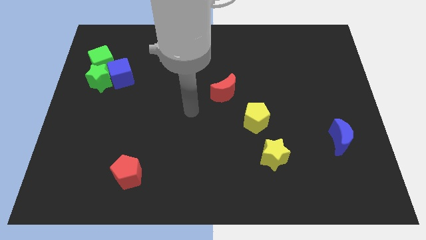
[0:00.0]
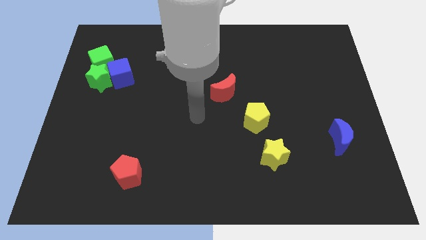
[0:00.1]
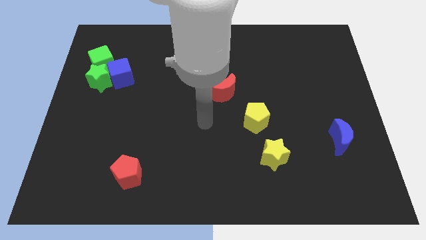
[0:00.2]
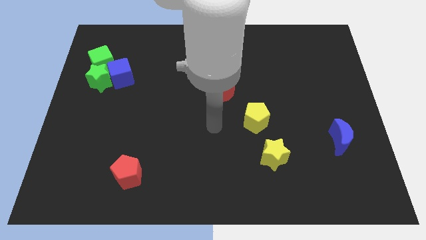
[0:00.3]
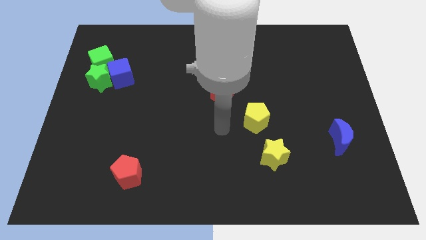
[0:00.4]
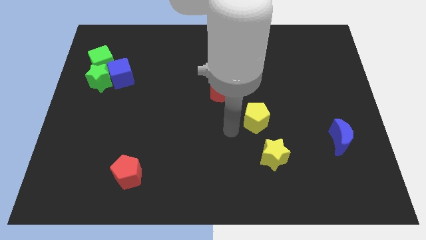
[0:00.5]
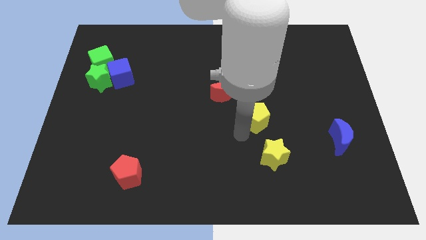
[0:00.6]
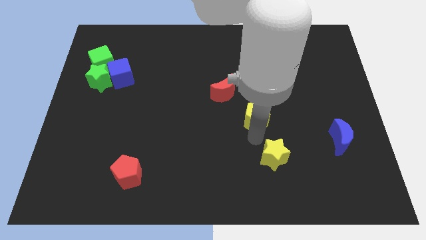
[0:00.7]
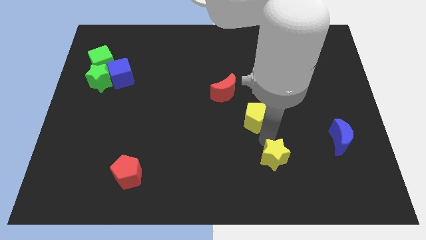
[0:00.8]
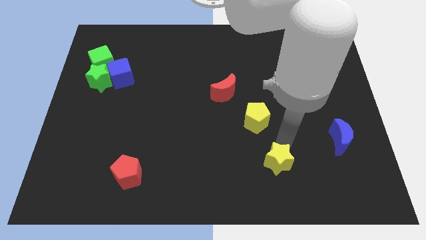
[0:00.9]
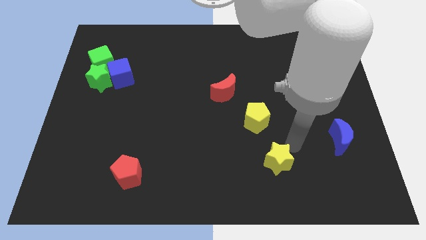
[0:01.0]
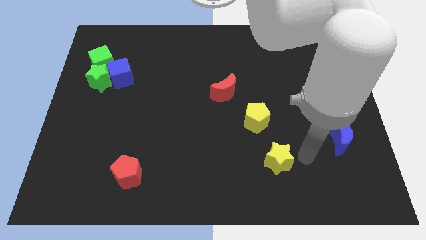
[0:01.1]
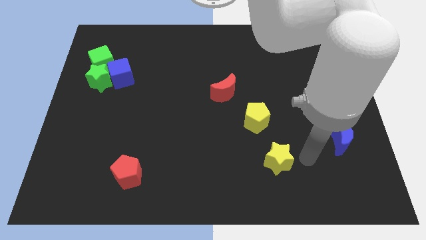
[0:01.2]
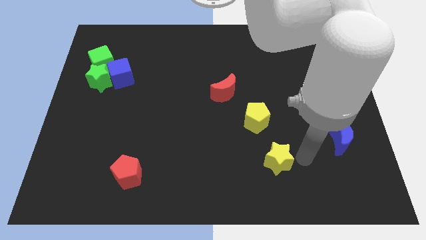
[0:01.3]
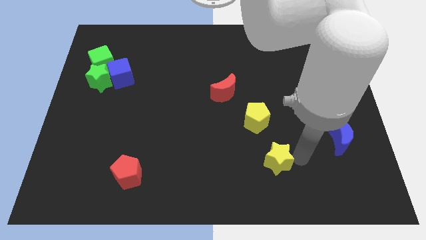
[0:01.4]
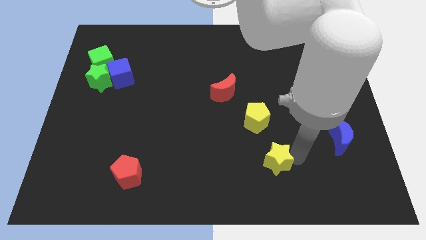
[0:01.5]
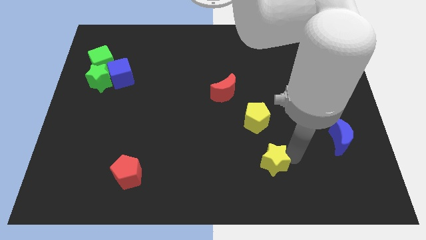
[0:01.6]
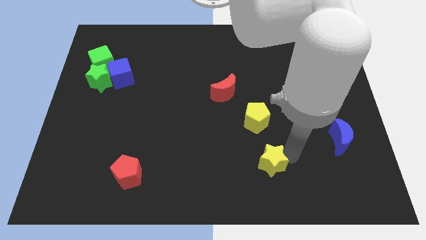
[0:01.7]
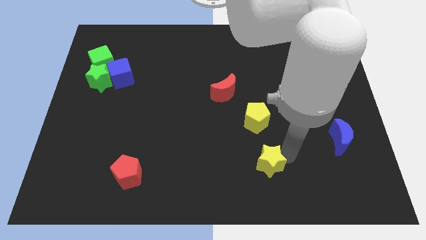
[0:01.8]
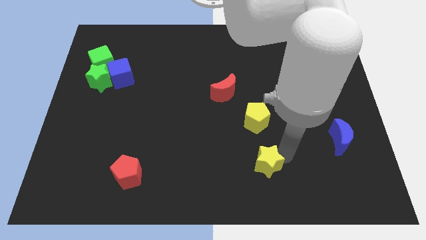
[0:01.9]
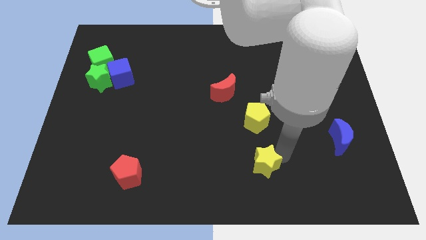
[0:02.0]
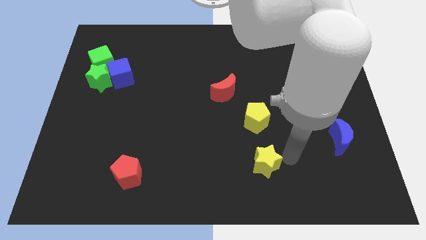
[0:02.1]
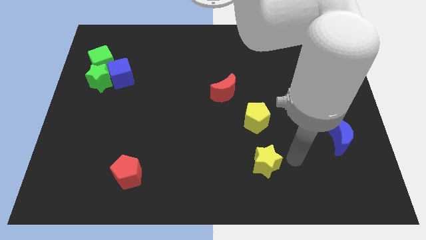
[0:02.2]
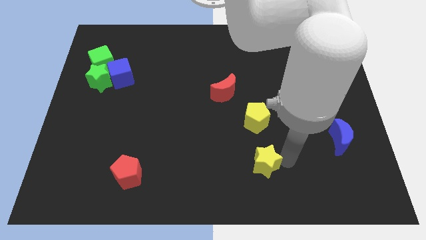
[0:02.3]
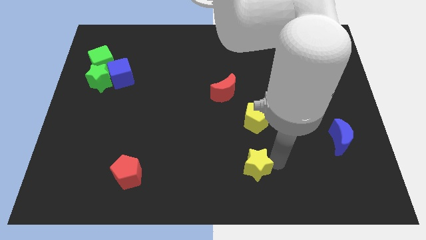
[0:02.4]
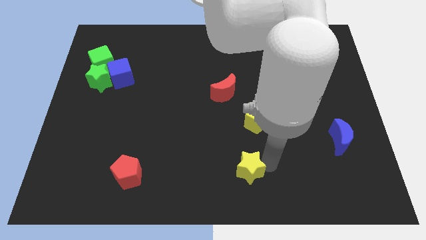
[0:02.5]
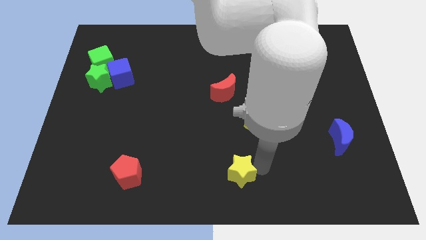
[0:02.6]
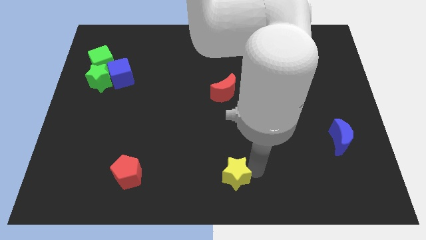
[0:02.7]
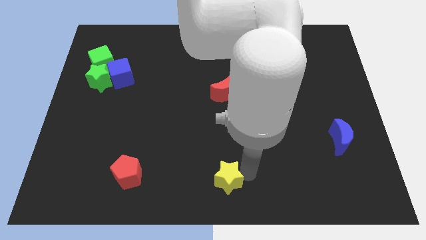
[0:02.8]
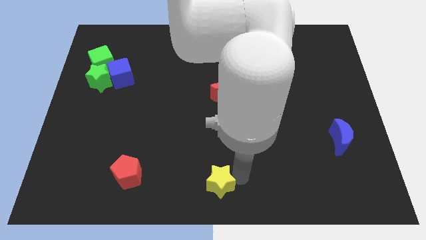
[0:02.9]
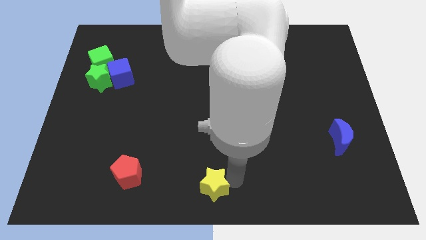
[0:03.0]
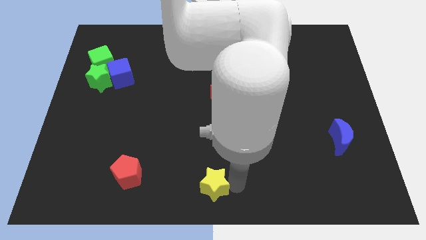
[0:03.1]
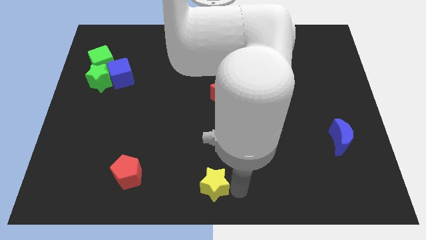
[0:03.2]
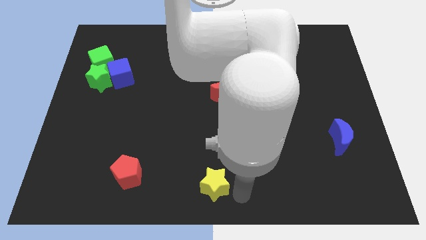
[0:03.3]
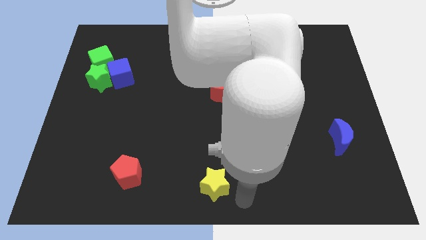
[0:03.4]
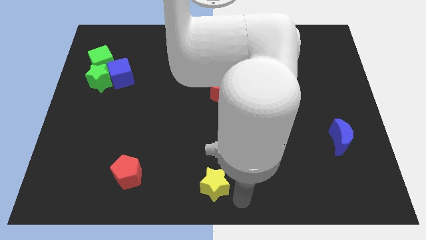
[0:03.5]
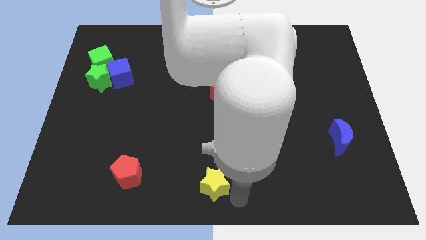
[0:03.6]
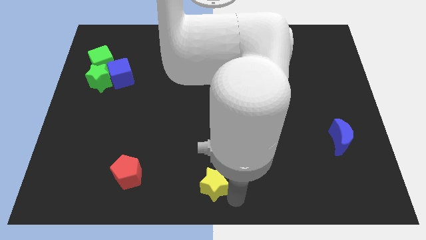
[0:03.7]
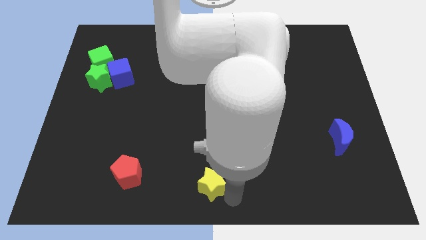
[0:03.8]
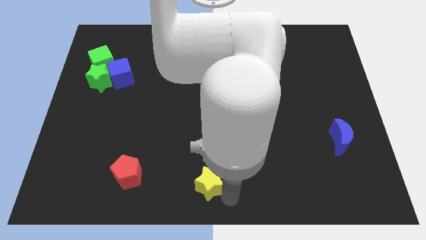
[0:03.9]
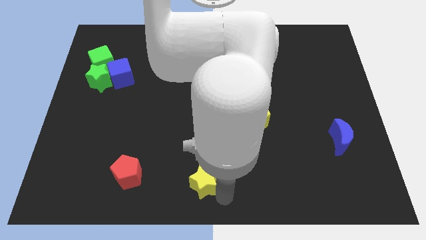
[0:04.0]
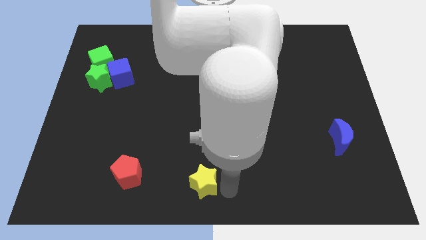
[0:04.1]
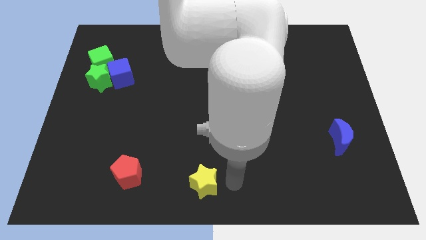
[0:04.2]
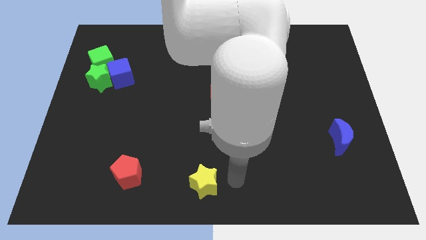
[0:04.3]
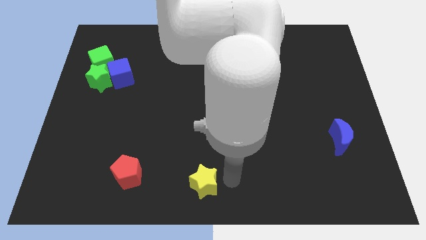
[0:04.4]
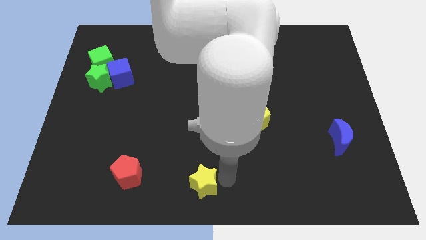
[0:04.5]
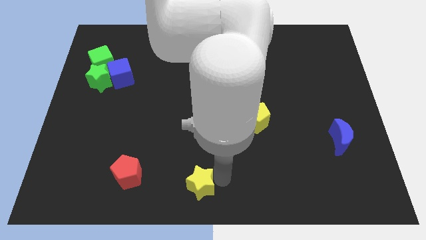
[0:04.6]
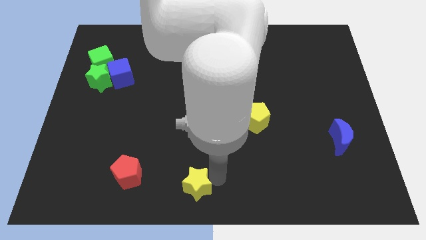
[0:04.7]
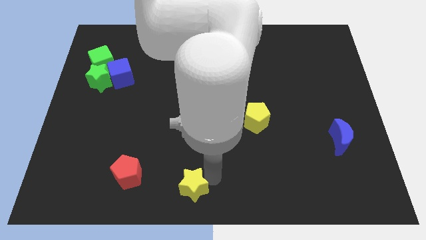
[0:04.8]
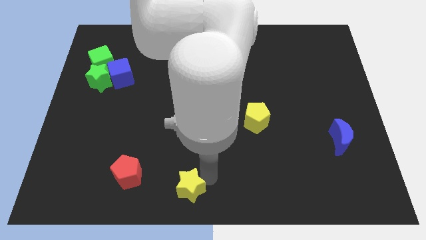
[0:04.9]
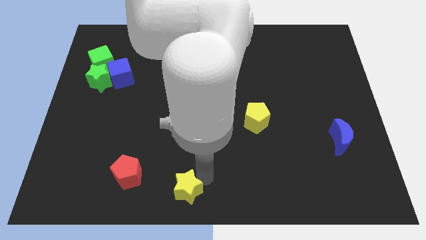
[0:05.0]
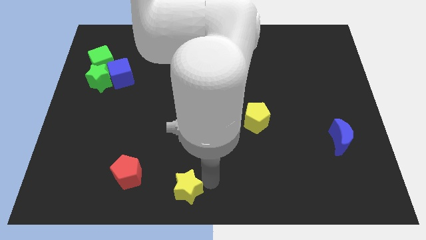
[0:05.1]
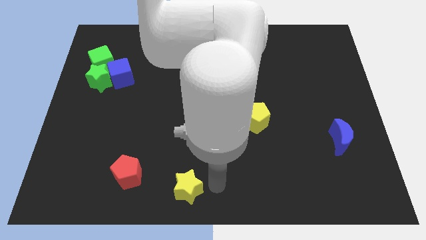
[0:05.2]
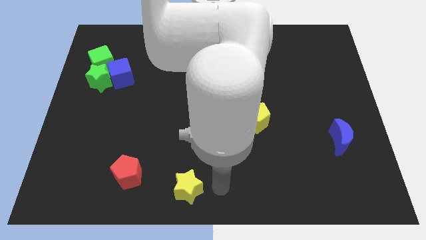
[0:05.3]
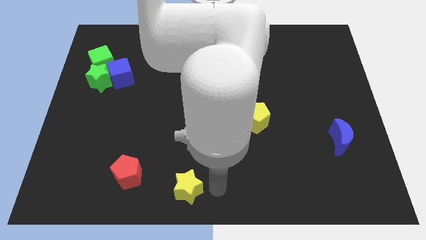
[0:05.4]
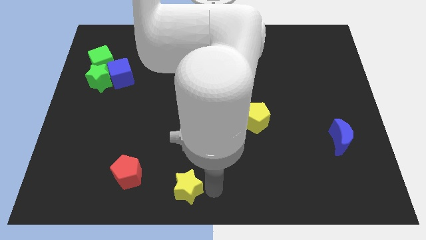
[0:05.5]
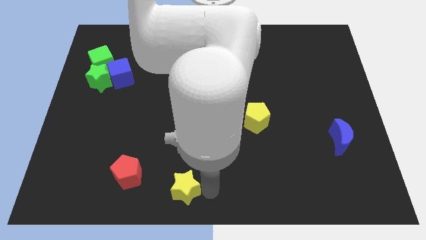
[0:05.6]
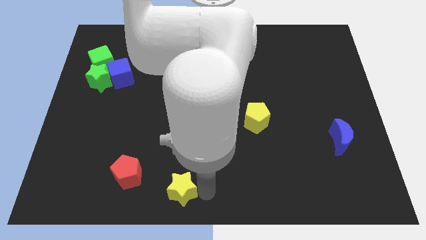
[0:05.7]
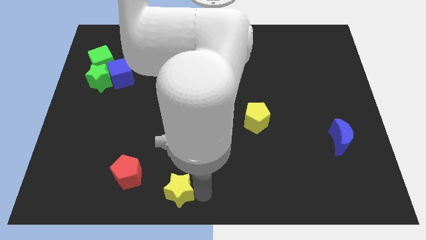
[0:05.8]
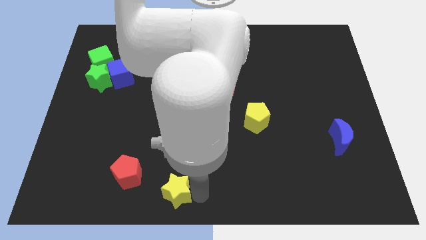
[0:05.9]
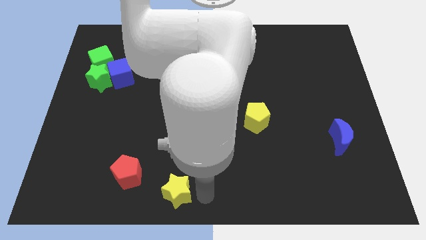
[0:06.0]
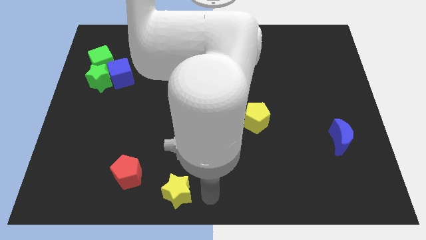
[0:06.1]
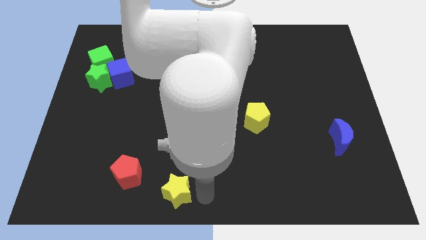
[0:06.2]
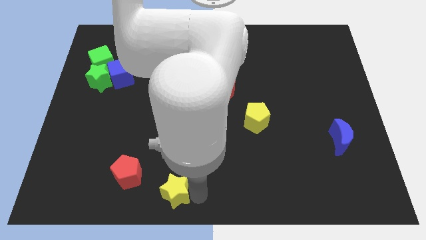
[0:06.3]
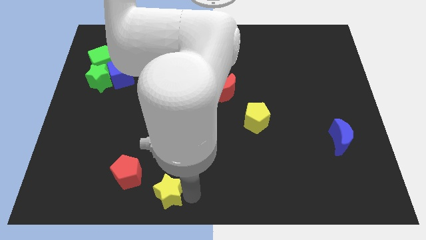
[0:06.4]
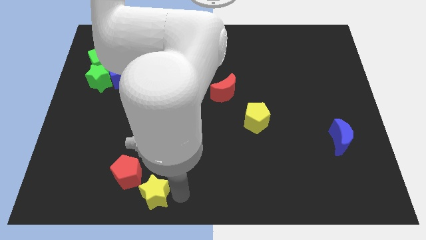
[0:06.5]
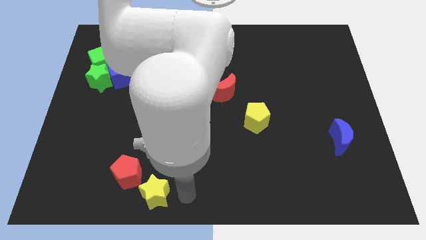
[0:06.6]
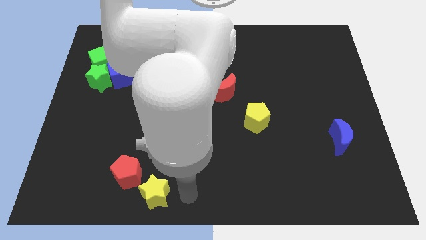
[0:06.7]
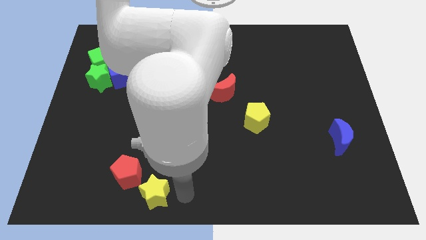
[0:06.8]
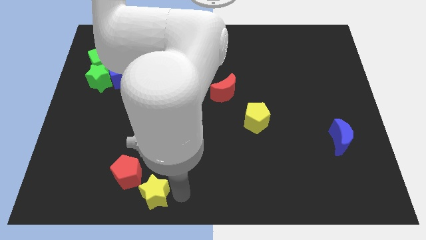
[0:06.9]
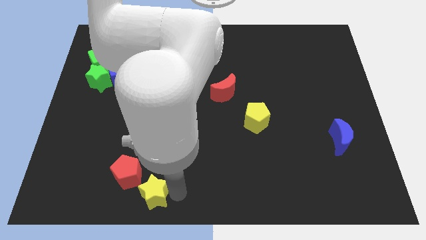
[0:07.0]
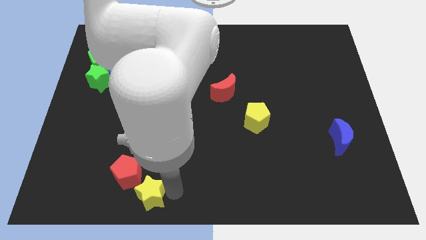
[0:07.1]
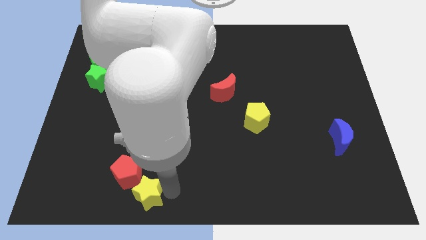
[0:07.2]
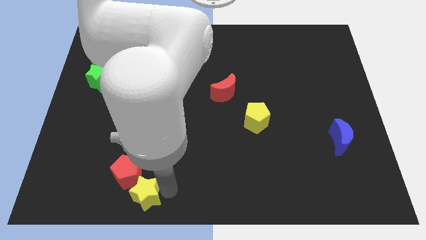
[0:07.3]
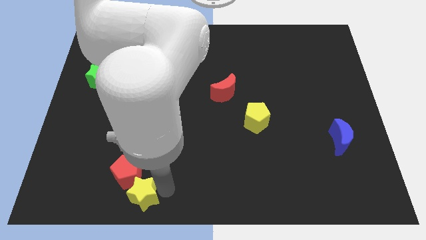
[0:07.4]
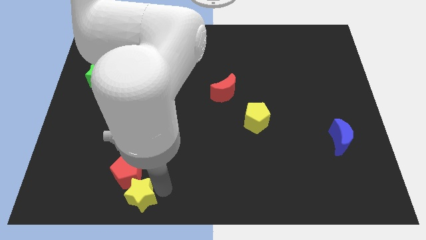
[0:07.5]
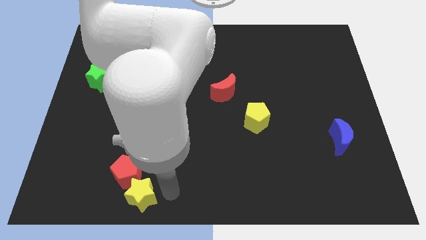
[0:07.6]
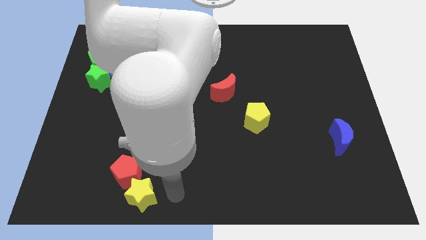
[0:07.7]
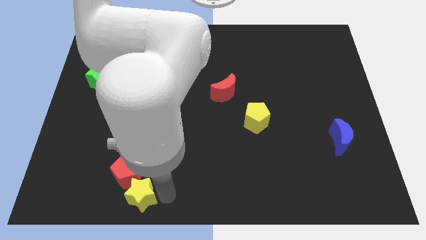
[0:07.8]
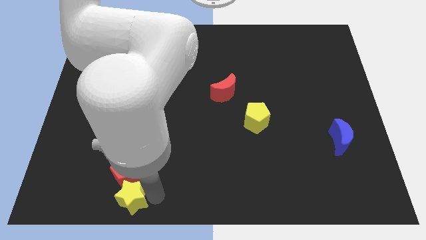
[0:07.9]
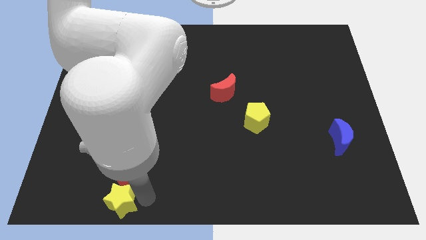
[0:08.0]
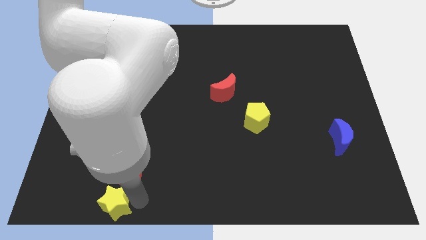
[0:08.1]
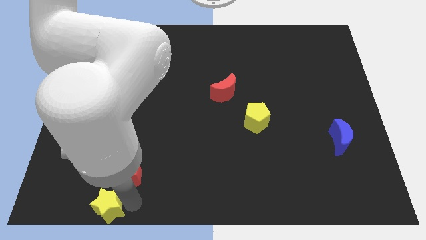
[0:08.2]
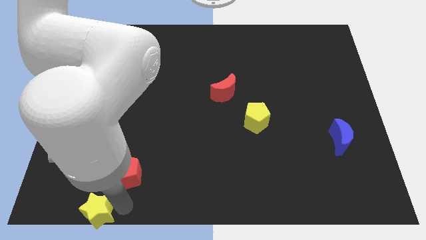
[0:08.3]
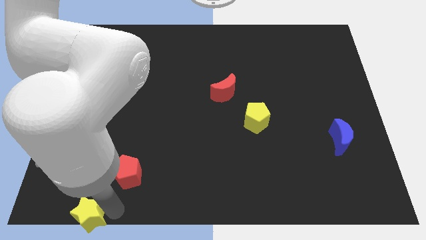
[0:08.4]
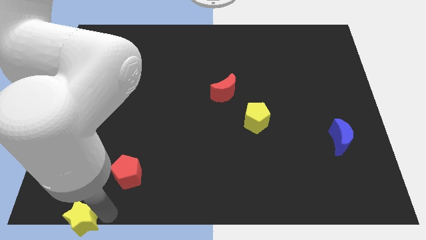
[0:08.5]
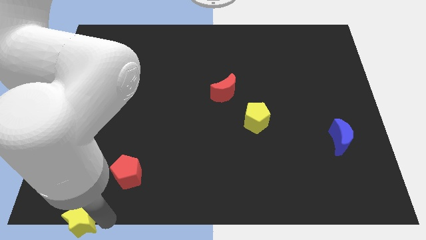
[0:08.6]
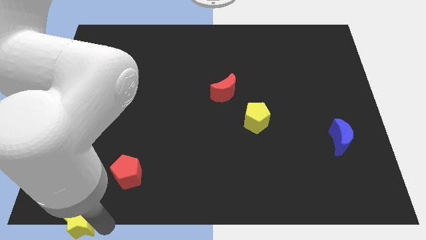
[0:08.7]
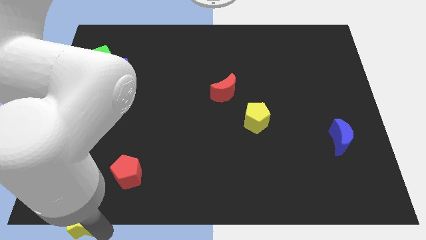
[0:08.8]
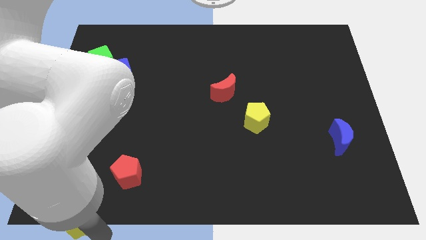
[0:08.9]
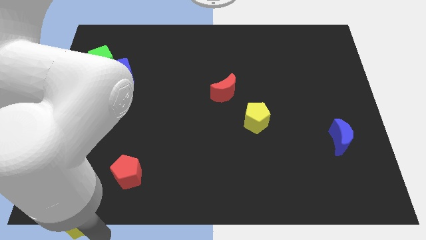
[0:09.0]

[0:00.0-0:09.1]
put the yellow star to the lower left corner
